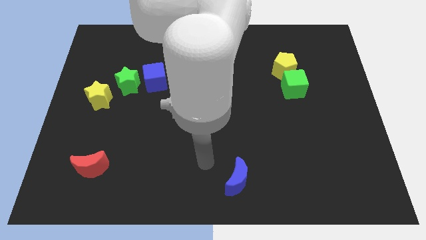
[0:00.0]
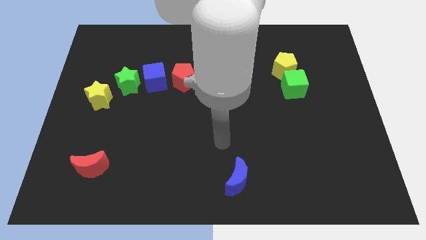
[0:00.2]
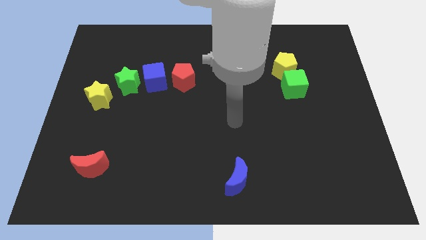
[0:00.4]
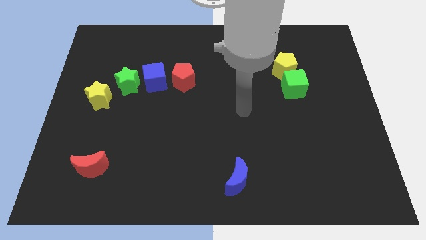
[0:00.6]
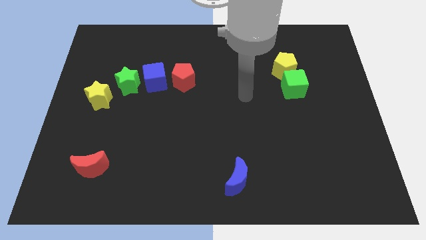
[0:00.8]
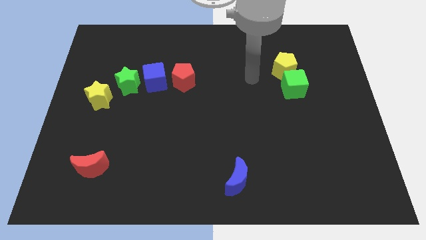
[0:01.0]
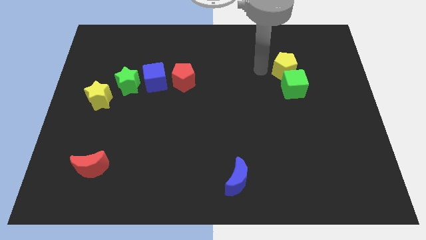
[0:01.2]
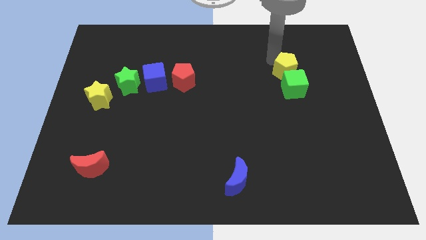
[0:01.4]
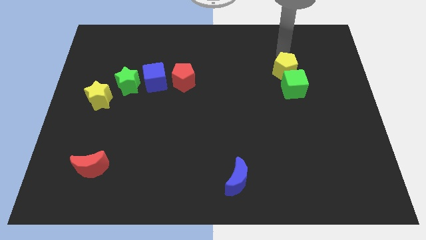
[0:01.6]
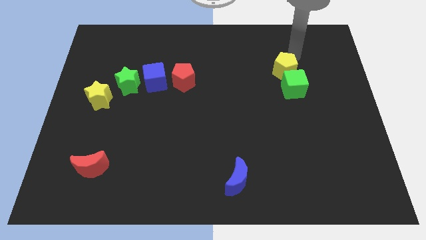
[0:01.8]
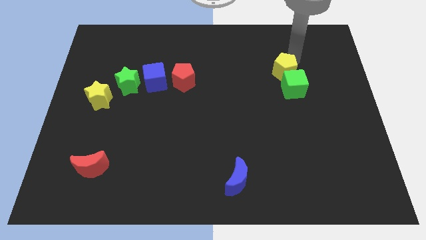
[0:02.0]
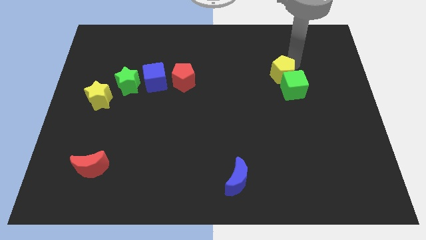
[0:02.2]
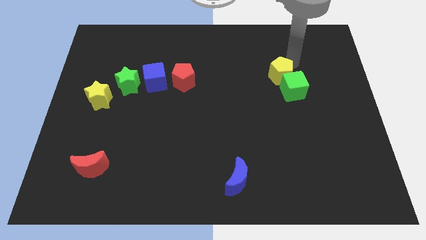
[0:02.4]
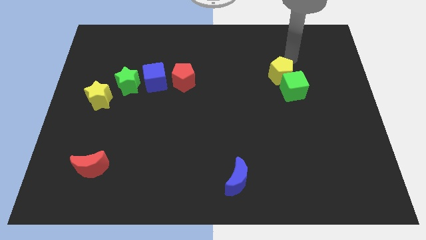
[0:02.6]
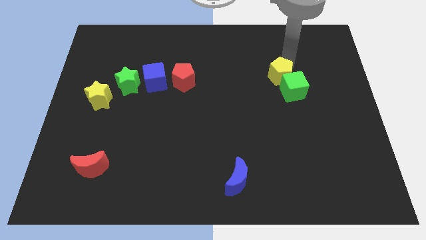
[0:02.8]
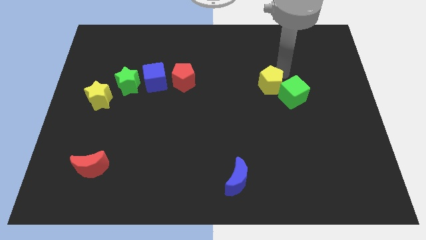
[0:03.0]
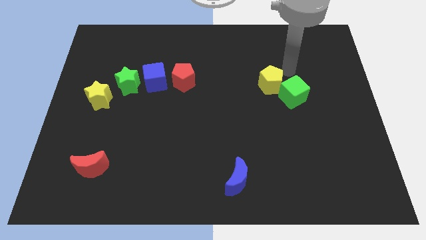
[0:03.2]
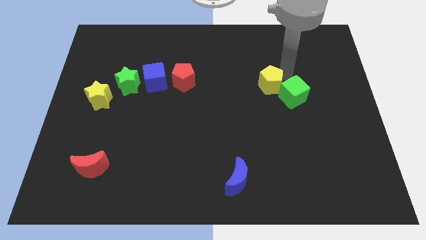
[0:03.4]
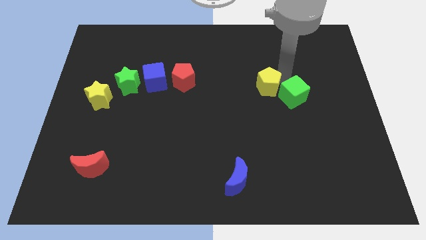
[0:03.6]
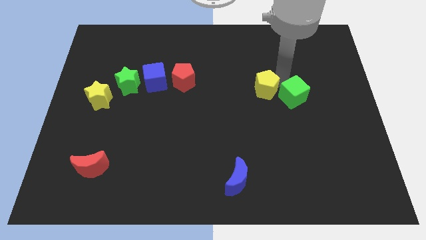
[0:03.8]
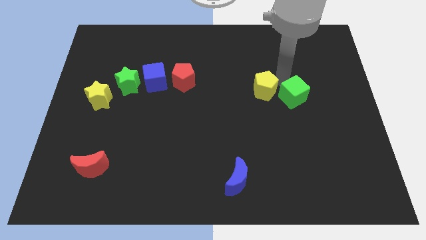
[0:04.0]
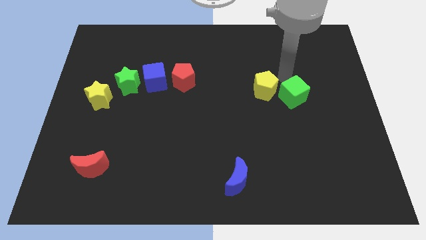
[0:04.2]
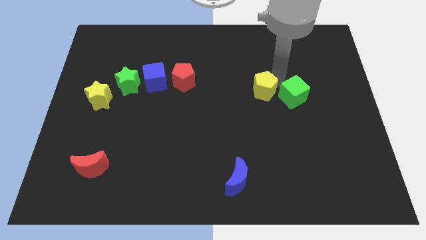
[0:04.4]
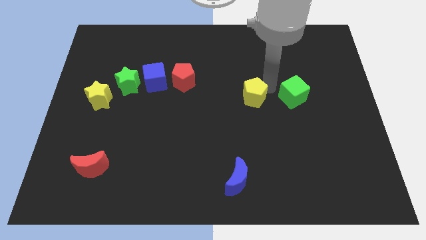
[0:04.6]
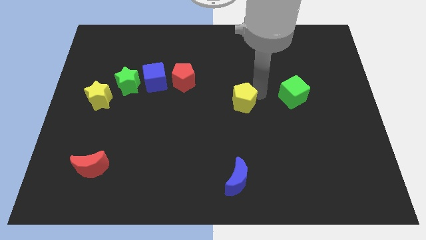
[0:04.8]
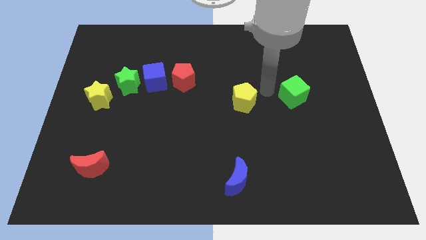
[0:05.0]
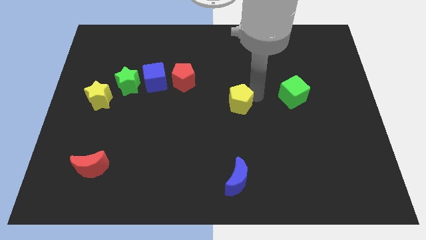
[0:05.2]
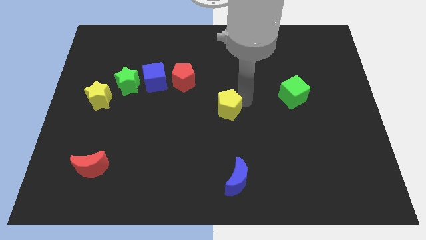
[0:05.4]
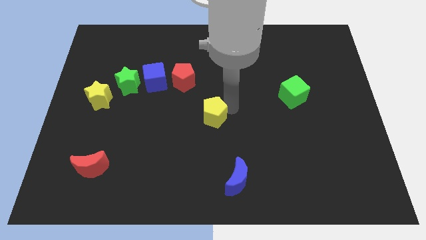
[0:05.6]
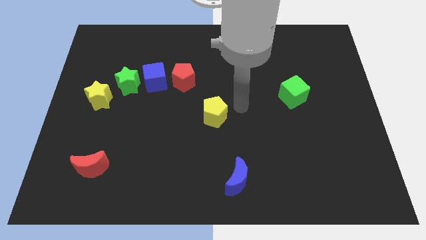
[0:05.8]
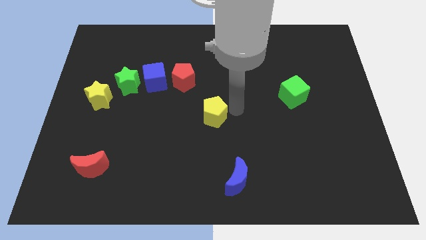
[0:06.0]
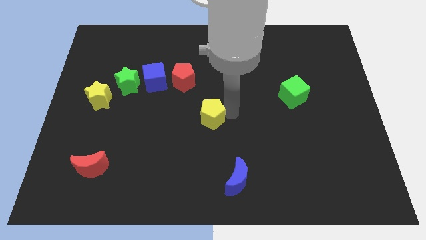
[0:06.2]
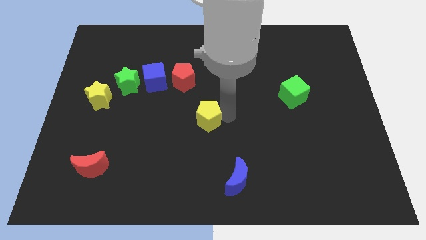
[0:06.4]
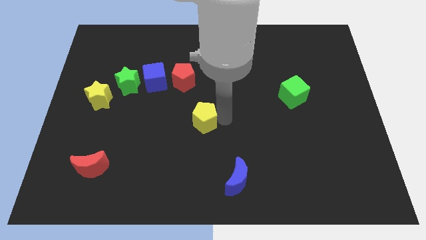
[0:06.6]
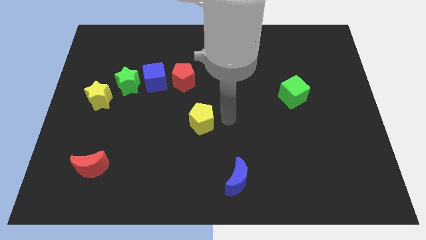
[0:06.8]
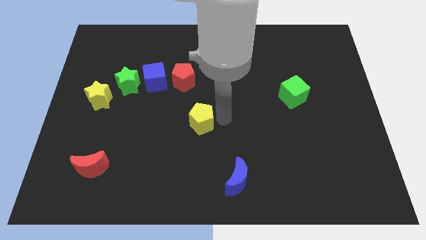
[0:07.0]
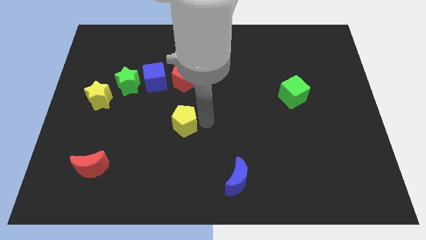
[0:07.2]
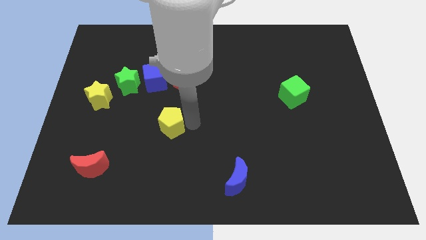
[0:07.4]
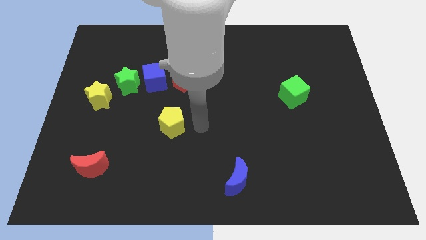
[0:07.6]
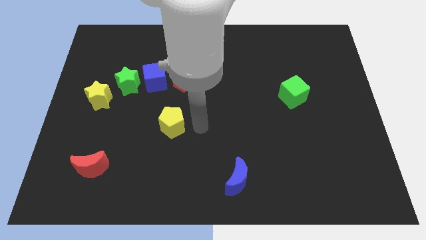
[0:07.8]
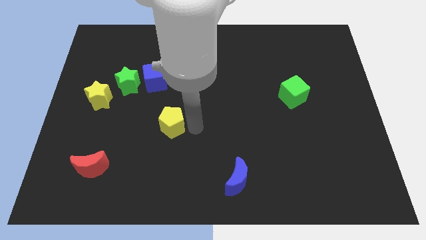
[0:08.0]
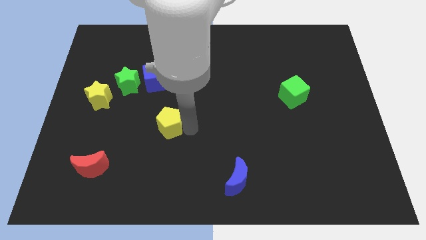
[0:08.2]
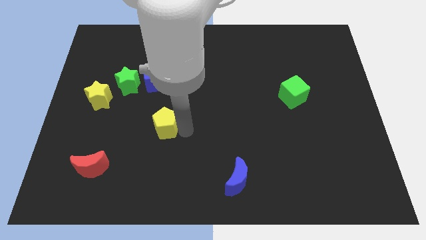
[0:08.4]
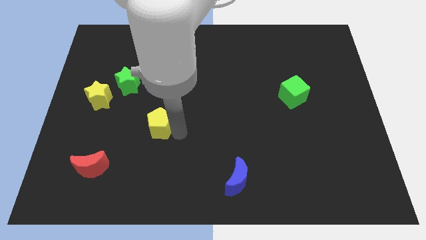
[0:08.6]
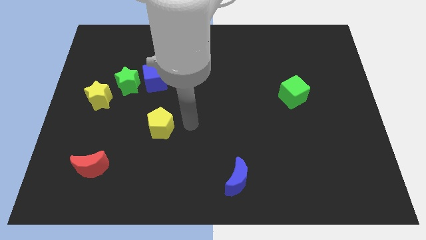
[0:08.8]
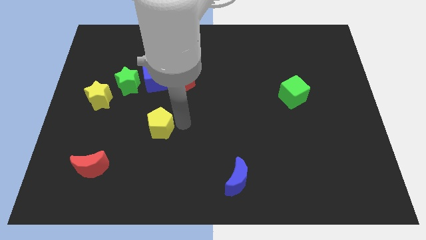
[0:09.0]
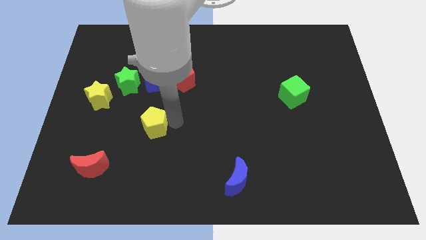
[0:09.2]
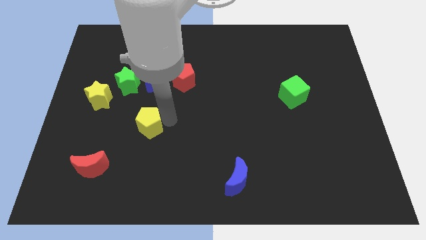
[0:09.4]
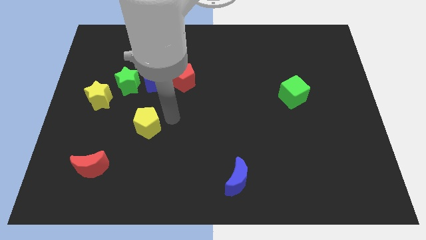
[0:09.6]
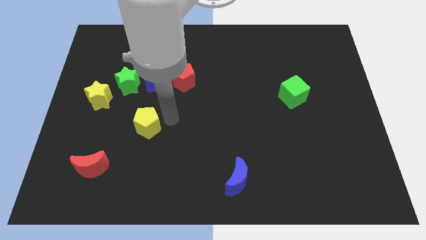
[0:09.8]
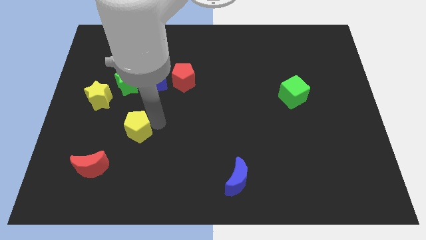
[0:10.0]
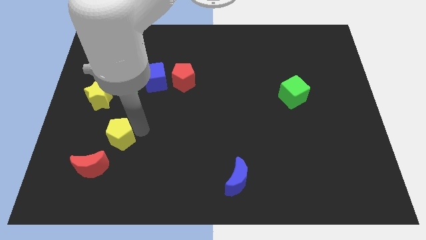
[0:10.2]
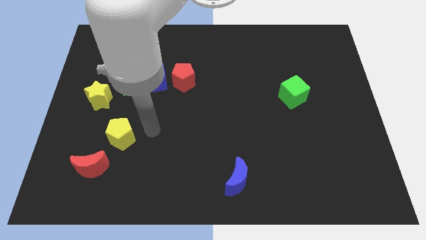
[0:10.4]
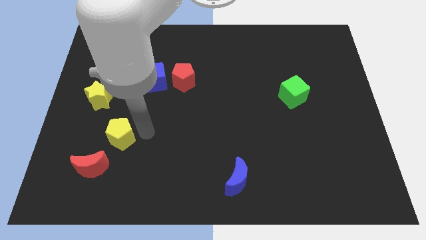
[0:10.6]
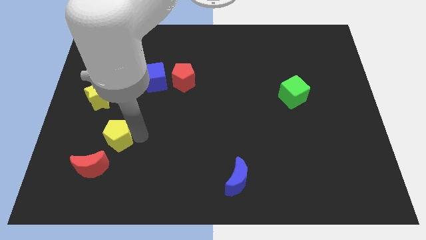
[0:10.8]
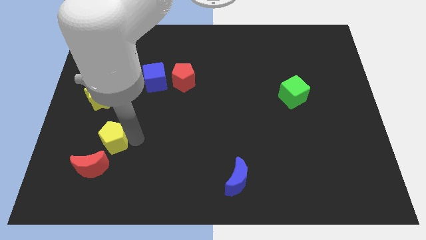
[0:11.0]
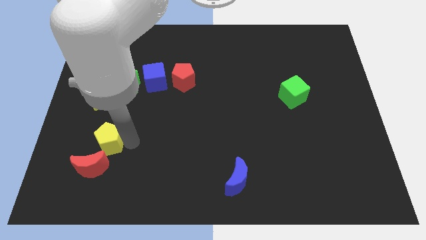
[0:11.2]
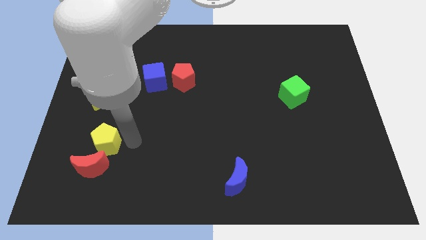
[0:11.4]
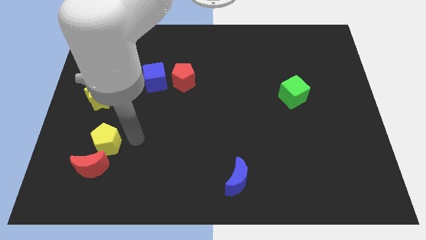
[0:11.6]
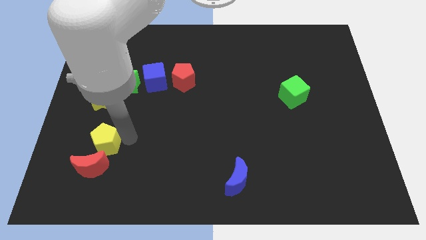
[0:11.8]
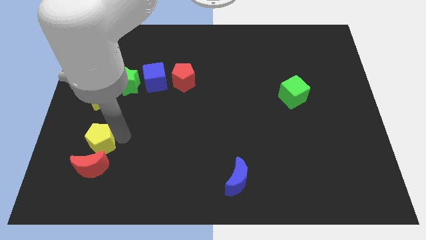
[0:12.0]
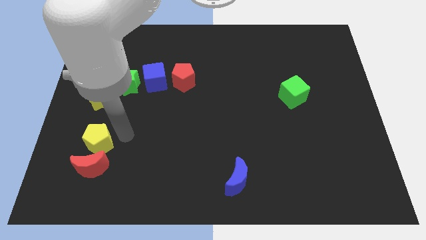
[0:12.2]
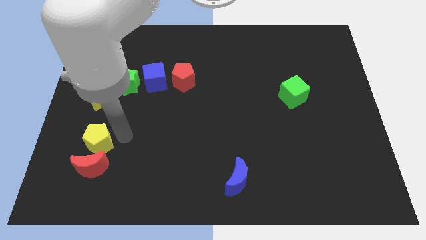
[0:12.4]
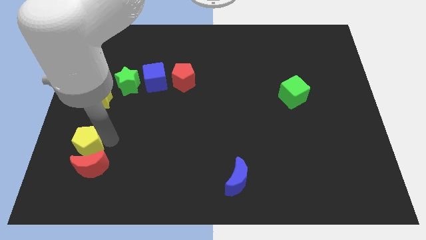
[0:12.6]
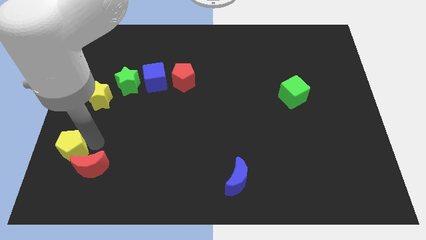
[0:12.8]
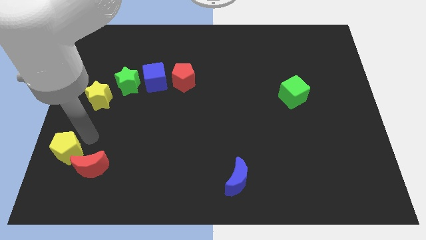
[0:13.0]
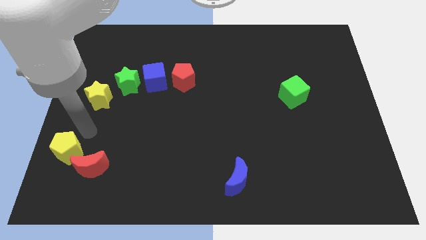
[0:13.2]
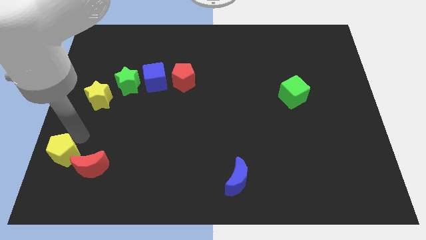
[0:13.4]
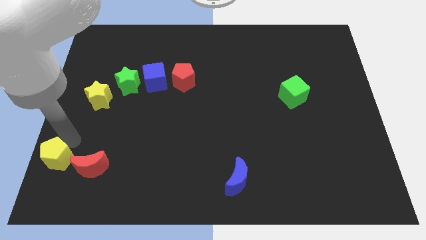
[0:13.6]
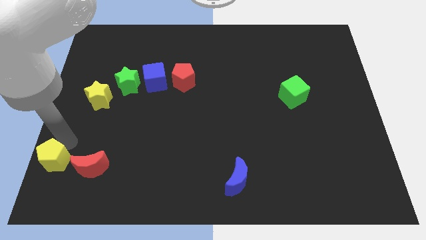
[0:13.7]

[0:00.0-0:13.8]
move the yellow pentagon to the bottom left of the board
